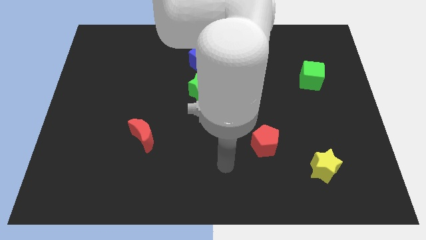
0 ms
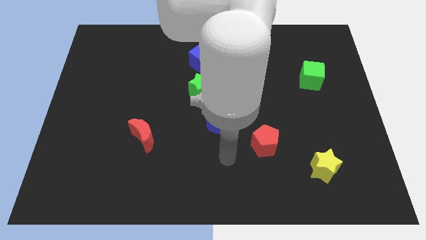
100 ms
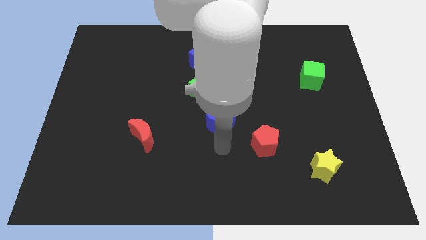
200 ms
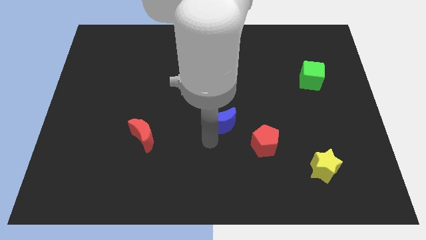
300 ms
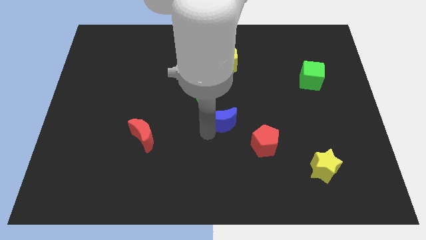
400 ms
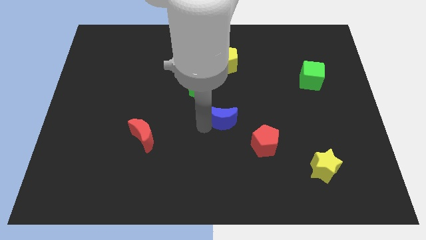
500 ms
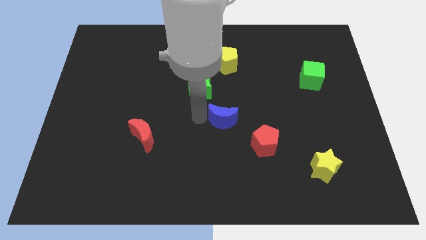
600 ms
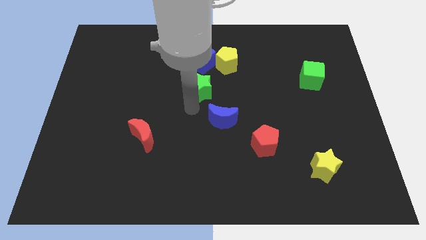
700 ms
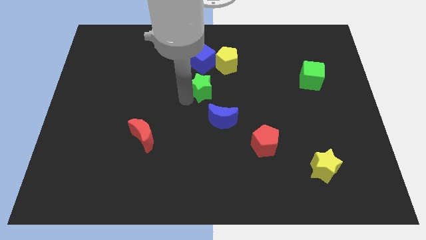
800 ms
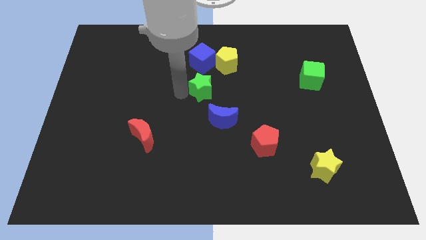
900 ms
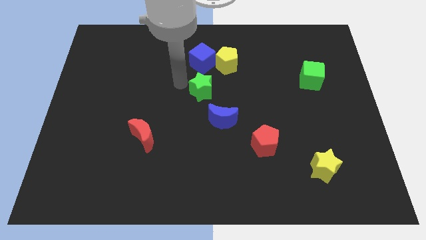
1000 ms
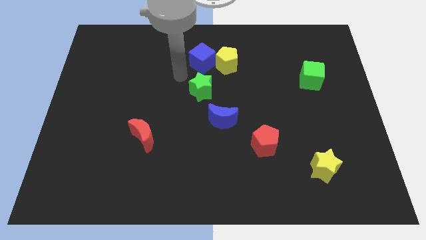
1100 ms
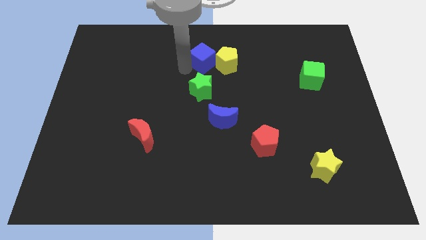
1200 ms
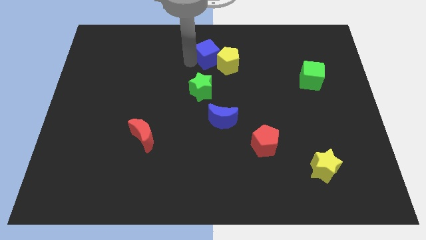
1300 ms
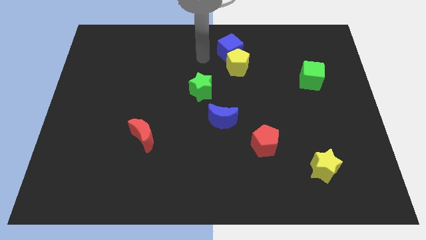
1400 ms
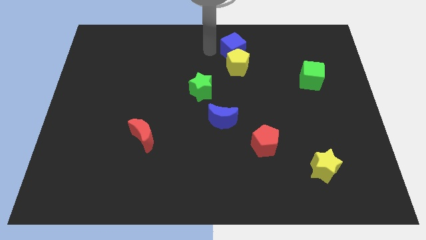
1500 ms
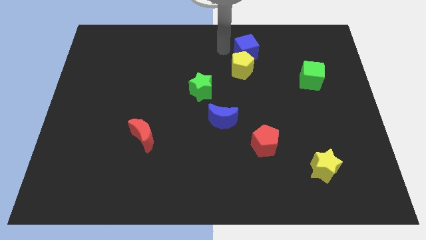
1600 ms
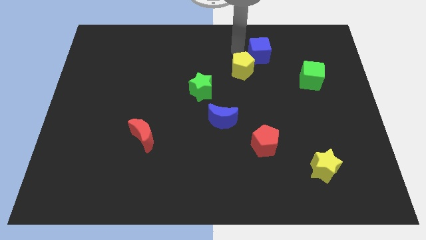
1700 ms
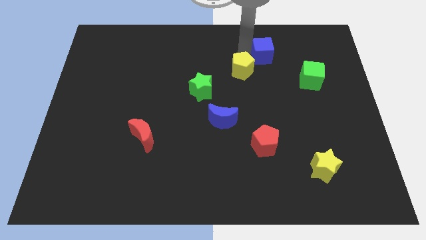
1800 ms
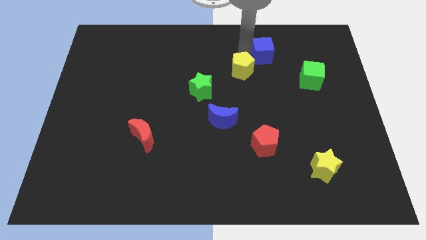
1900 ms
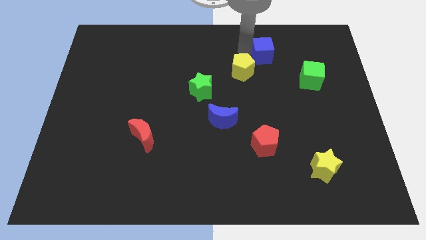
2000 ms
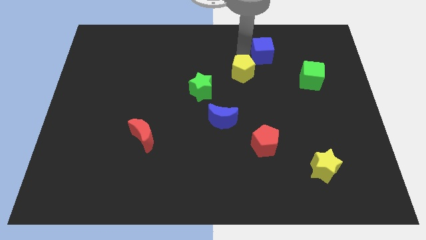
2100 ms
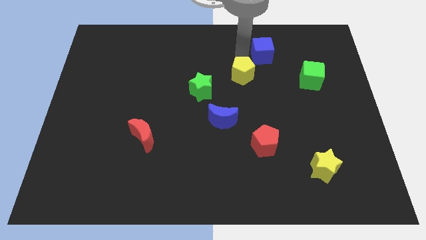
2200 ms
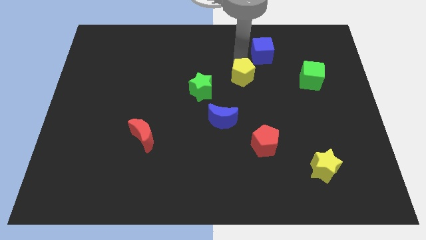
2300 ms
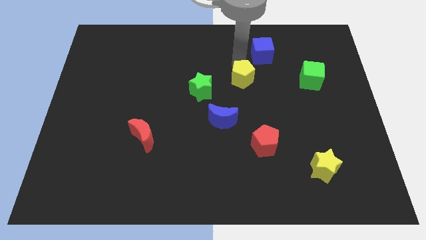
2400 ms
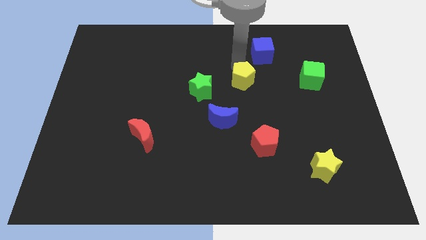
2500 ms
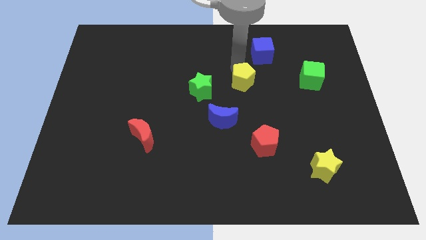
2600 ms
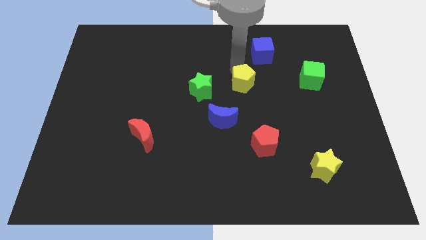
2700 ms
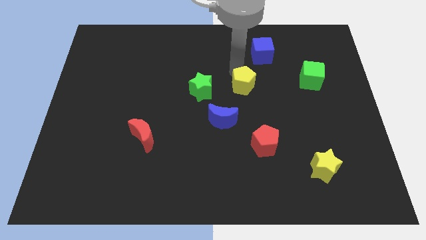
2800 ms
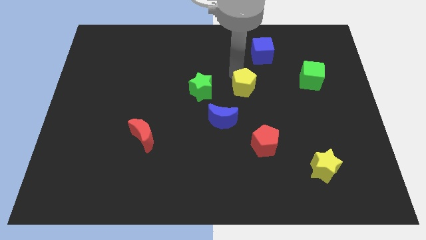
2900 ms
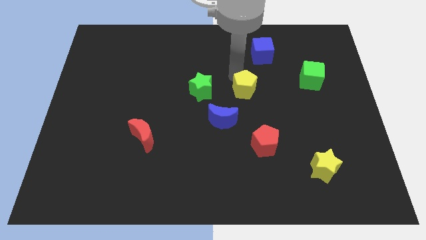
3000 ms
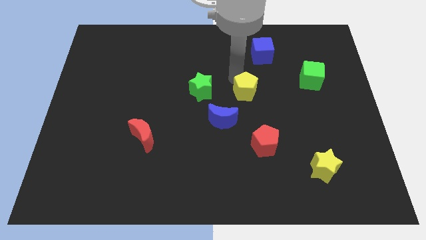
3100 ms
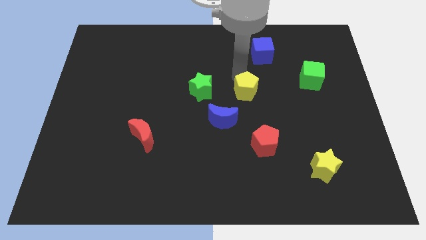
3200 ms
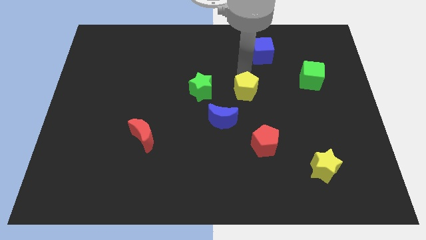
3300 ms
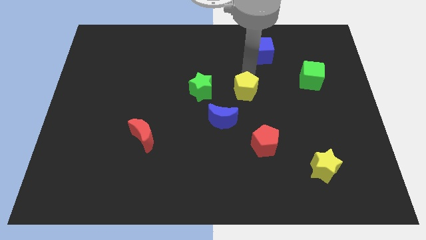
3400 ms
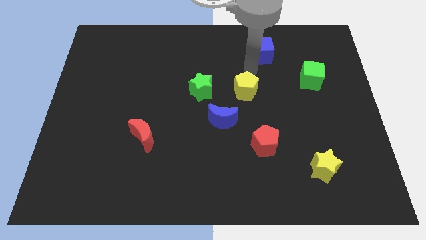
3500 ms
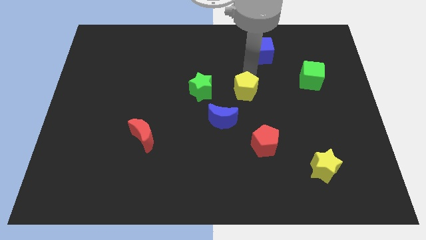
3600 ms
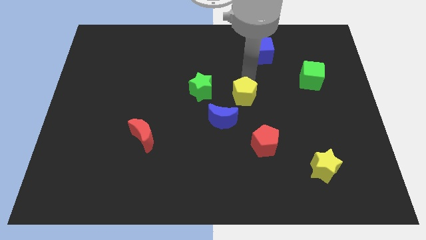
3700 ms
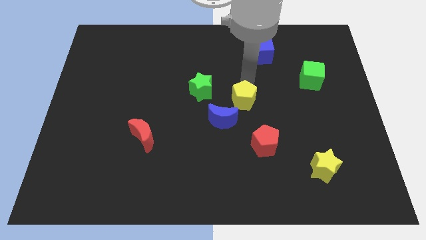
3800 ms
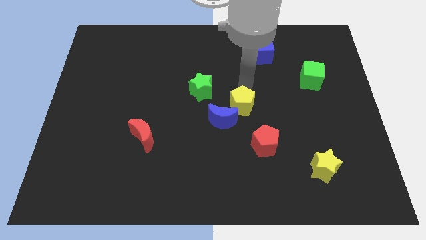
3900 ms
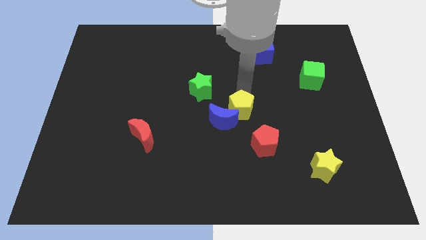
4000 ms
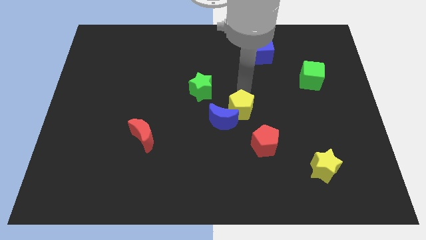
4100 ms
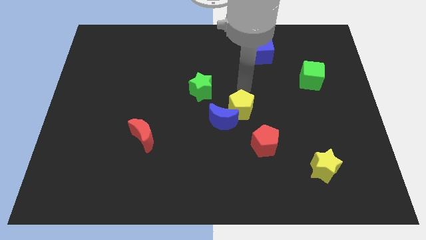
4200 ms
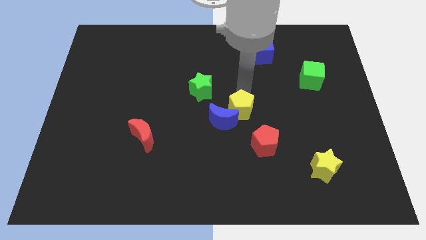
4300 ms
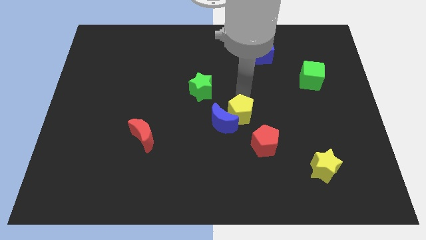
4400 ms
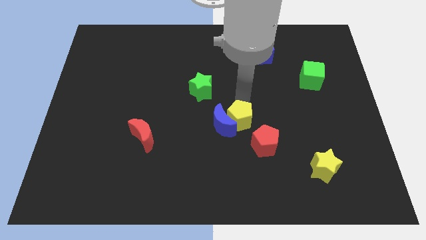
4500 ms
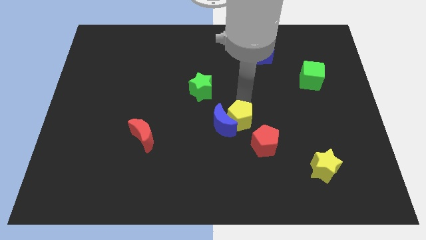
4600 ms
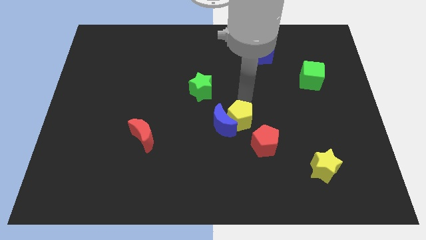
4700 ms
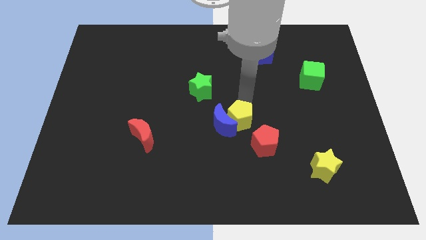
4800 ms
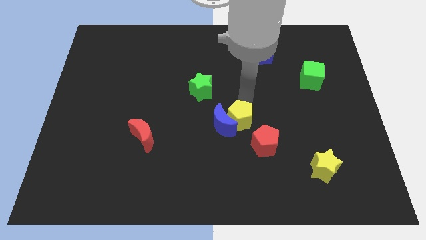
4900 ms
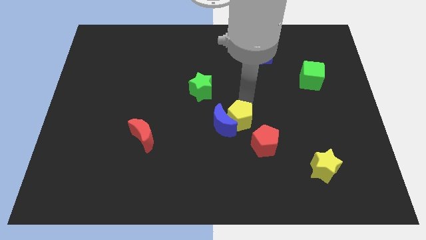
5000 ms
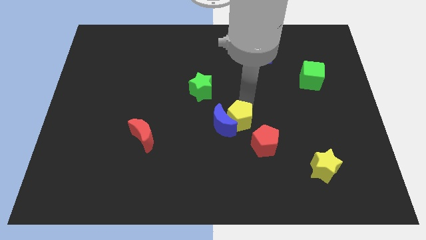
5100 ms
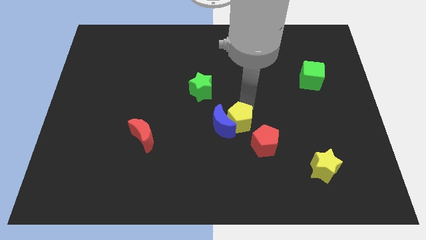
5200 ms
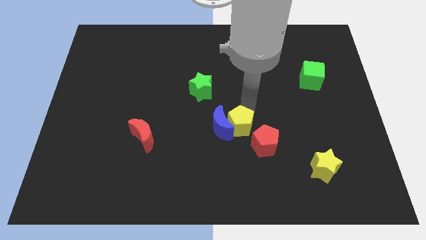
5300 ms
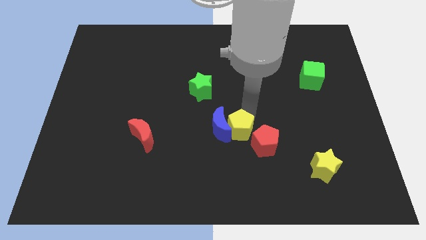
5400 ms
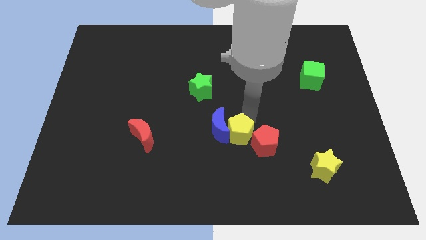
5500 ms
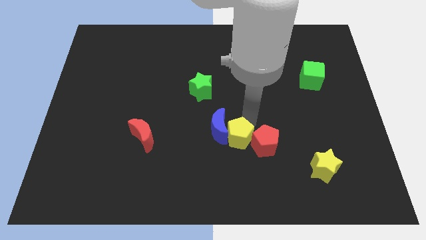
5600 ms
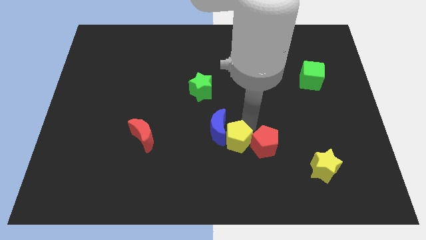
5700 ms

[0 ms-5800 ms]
push the yellow pentagon below the blue moon

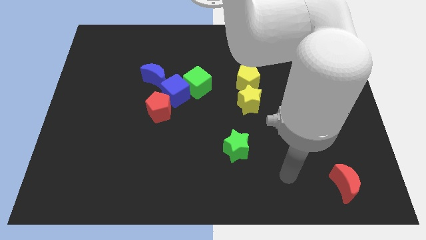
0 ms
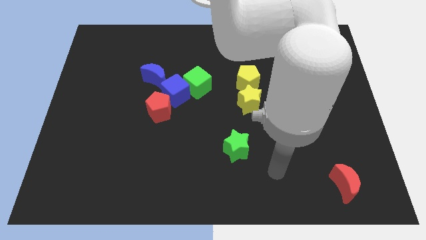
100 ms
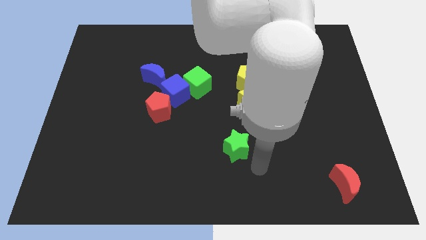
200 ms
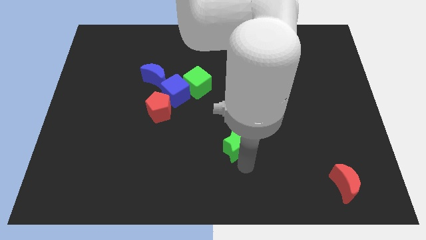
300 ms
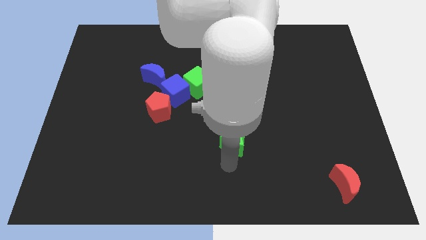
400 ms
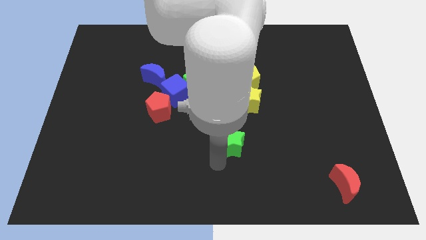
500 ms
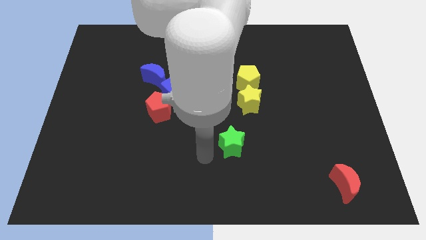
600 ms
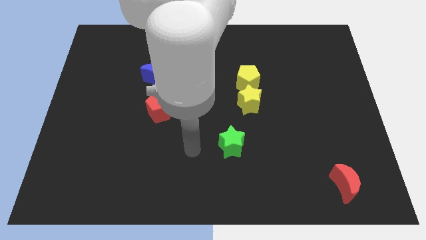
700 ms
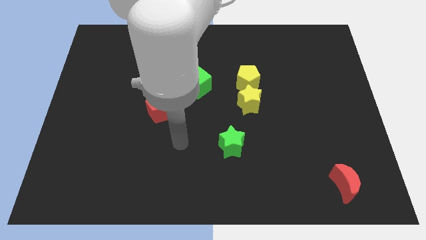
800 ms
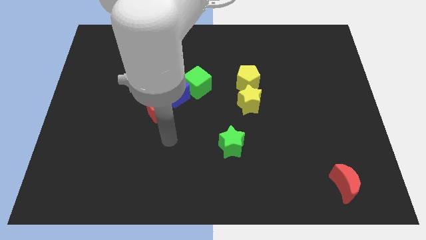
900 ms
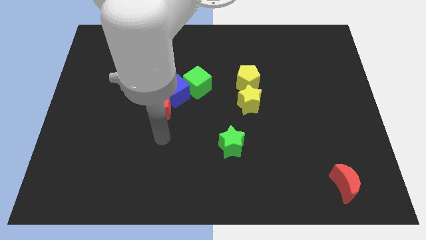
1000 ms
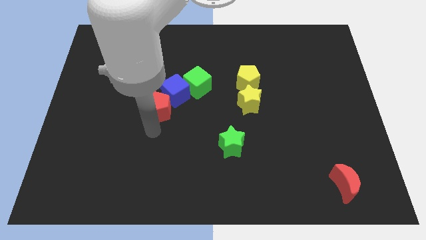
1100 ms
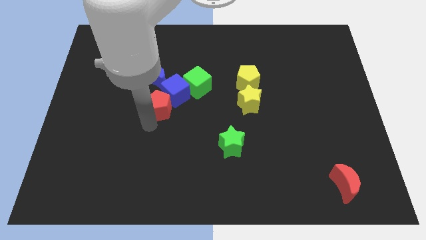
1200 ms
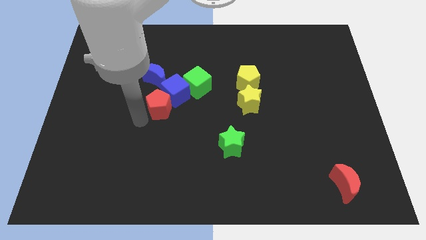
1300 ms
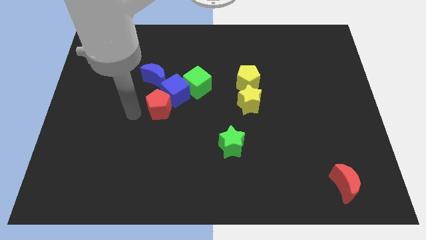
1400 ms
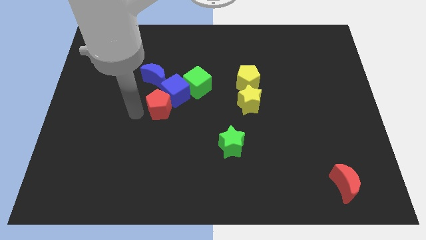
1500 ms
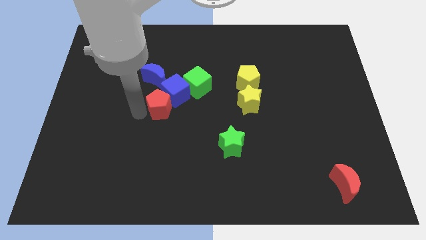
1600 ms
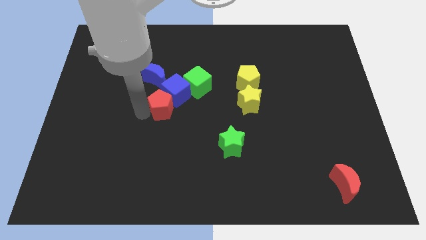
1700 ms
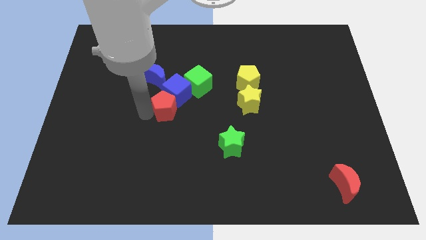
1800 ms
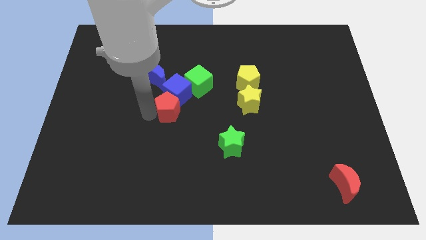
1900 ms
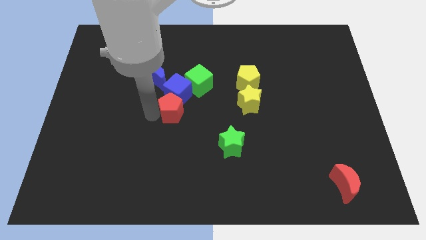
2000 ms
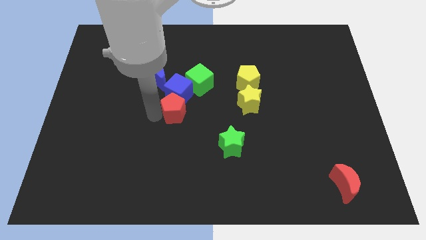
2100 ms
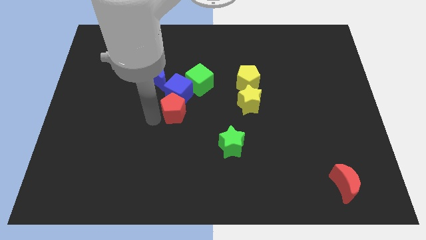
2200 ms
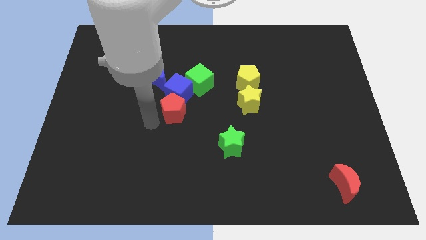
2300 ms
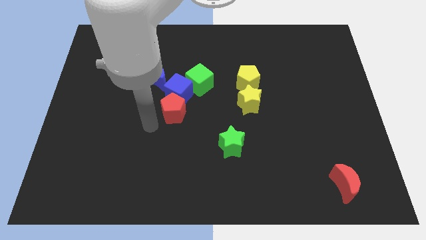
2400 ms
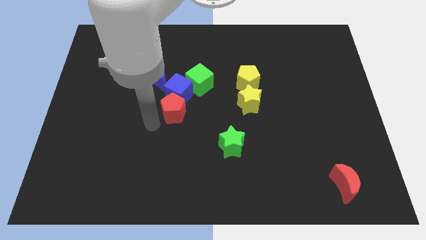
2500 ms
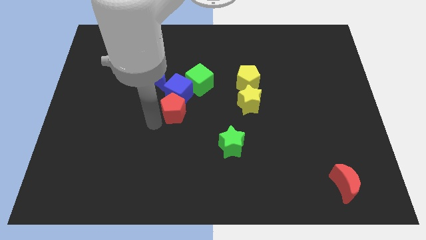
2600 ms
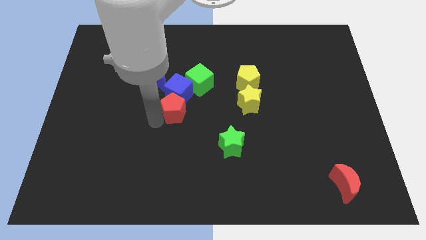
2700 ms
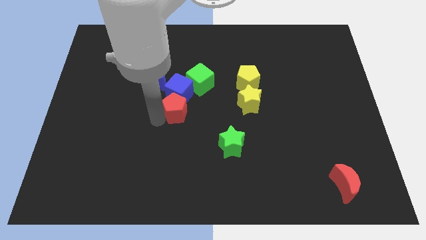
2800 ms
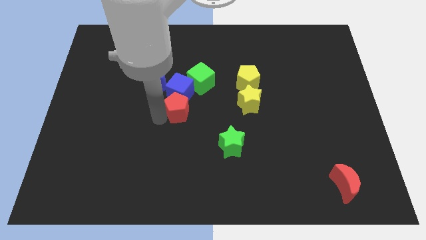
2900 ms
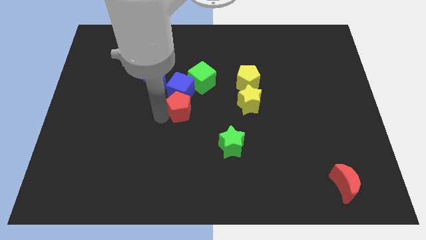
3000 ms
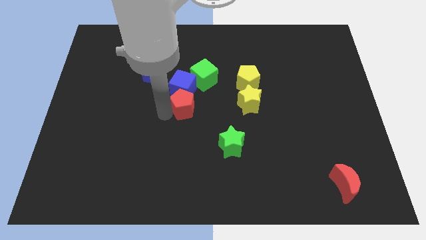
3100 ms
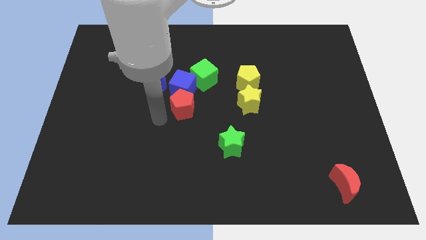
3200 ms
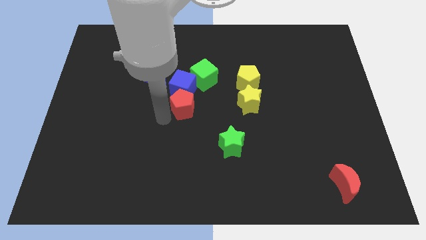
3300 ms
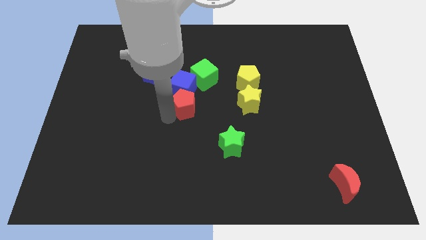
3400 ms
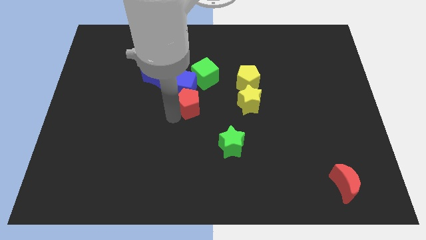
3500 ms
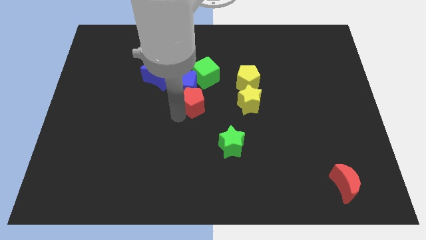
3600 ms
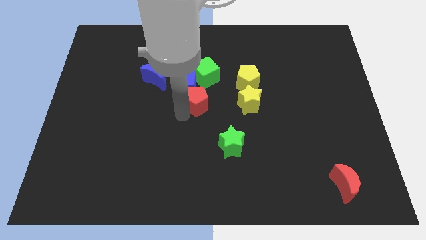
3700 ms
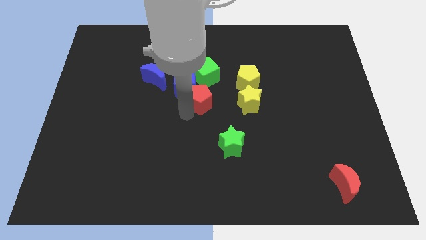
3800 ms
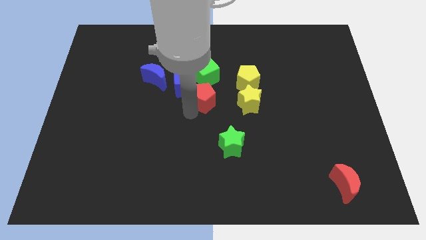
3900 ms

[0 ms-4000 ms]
push the red pentagon right of the blue cube
